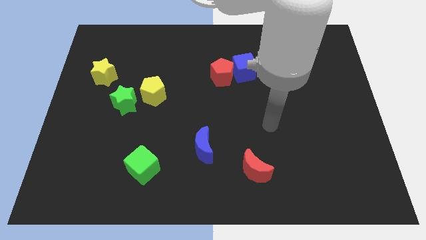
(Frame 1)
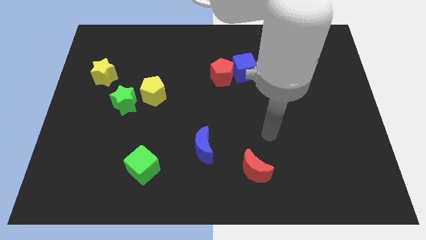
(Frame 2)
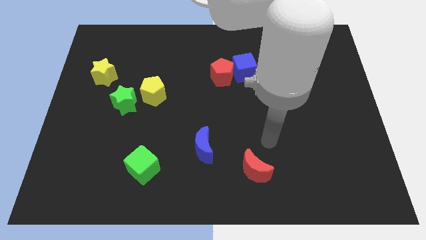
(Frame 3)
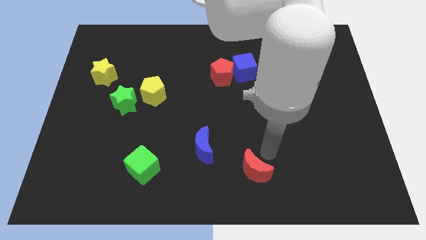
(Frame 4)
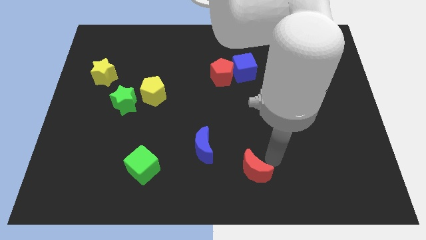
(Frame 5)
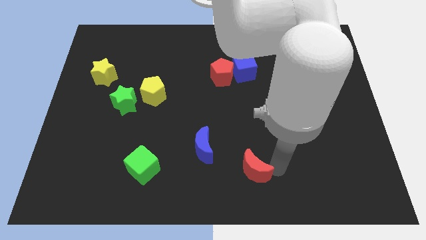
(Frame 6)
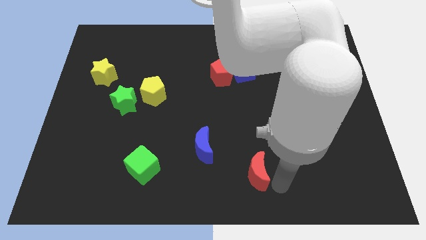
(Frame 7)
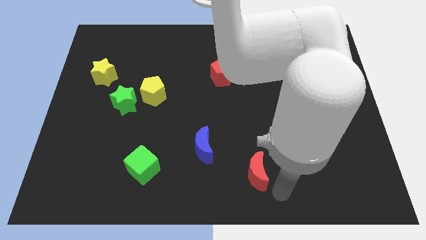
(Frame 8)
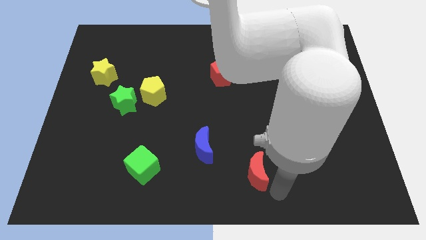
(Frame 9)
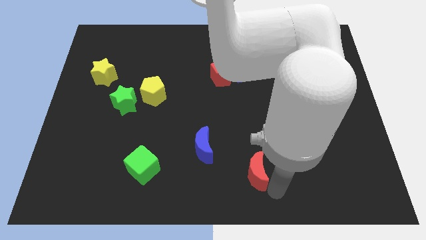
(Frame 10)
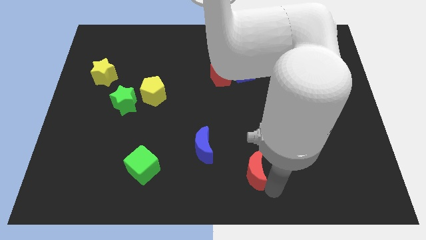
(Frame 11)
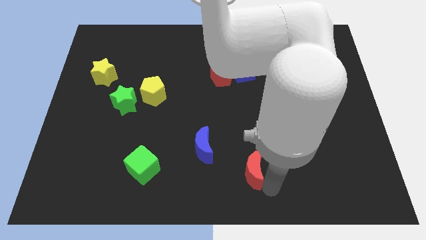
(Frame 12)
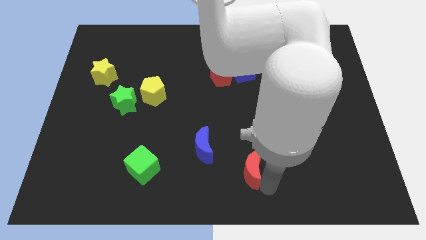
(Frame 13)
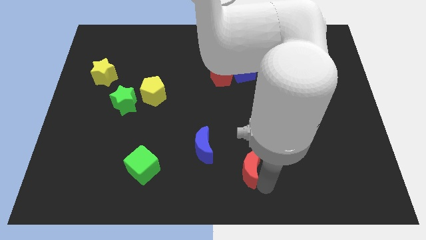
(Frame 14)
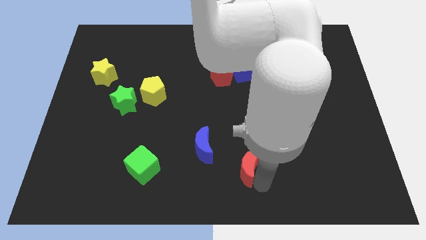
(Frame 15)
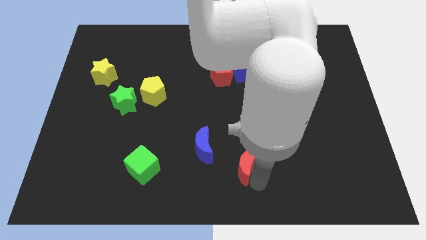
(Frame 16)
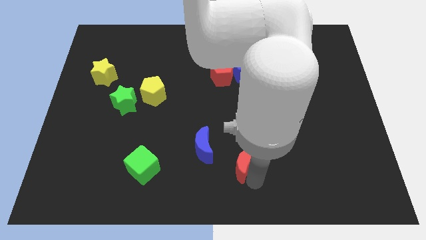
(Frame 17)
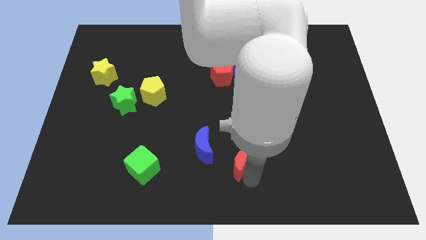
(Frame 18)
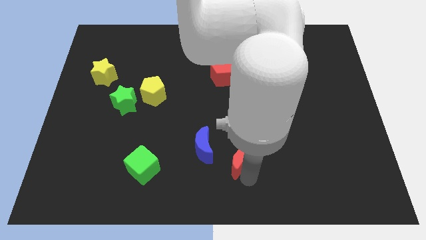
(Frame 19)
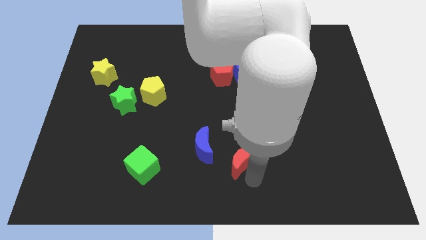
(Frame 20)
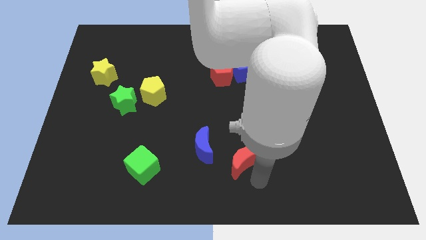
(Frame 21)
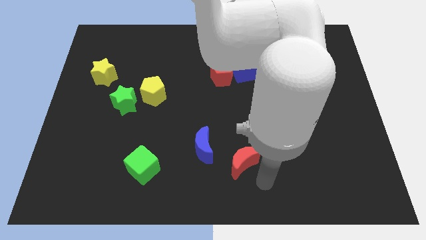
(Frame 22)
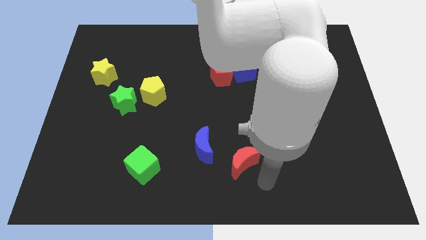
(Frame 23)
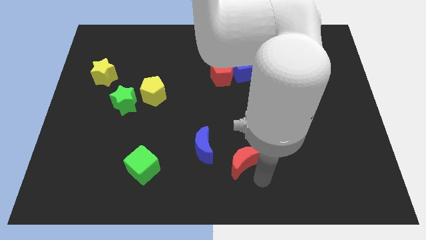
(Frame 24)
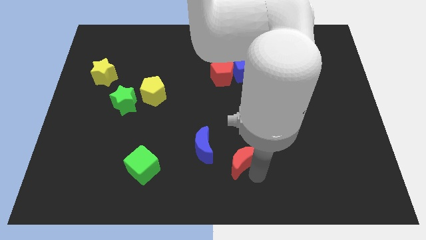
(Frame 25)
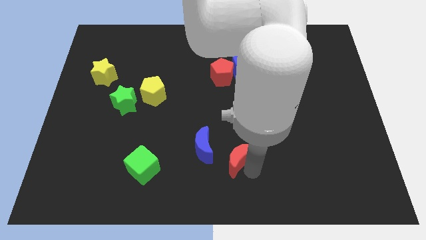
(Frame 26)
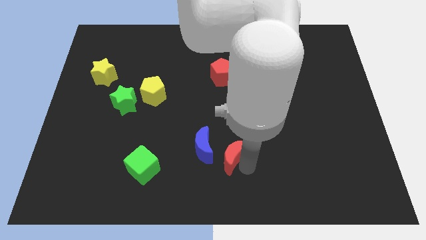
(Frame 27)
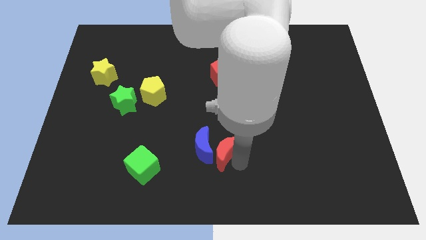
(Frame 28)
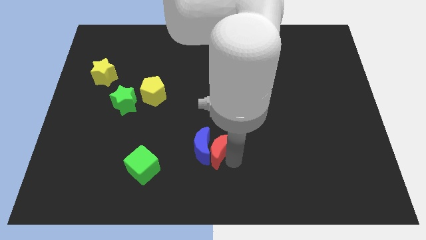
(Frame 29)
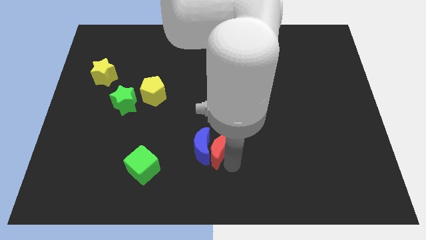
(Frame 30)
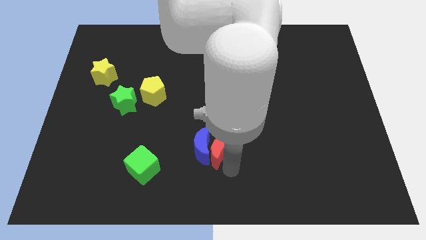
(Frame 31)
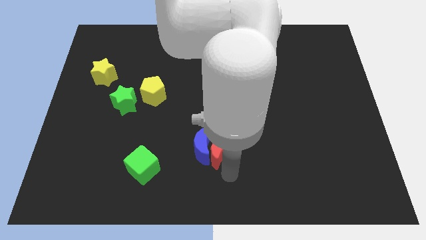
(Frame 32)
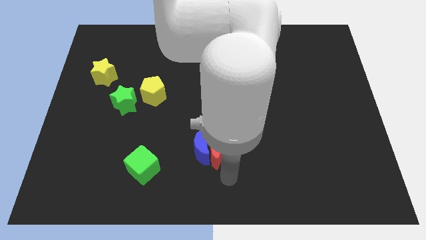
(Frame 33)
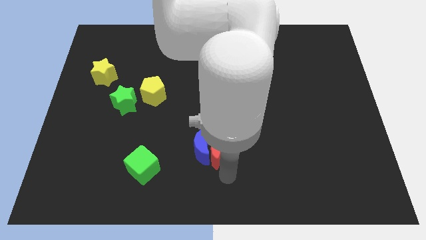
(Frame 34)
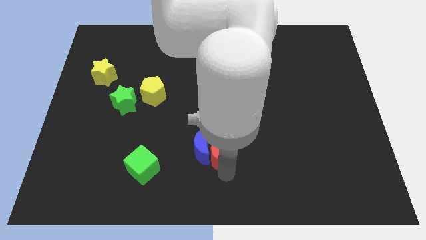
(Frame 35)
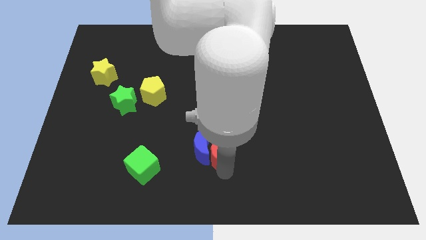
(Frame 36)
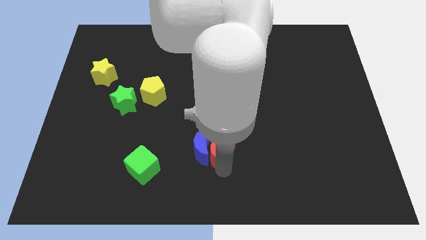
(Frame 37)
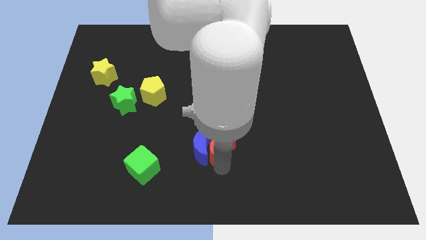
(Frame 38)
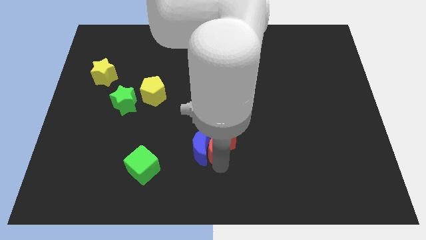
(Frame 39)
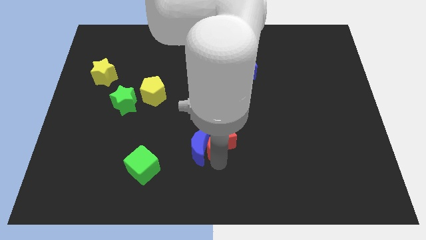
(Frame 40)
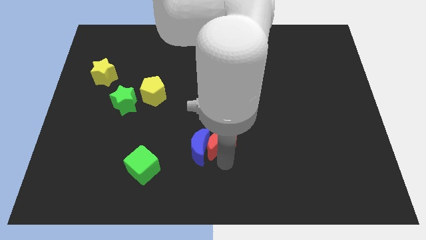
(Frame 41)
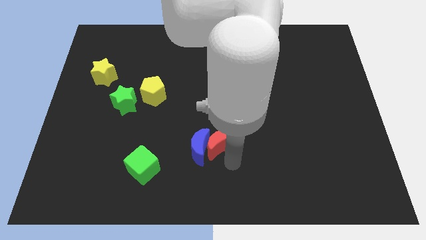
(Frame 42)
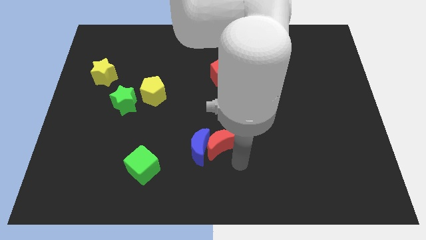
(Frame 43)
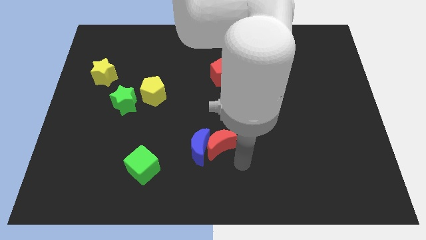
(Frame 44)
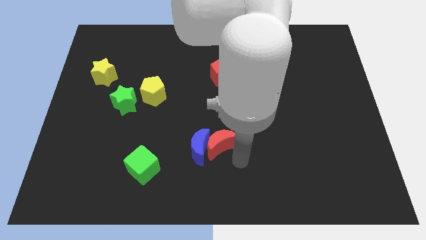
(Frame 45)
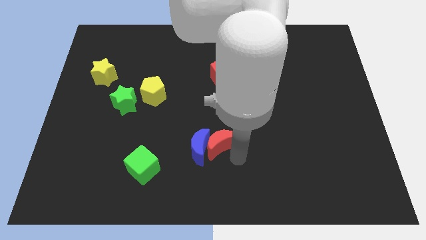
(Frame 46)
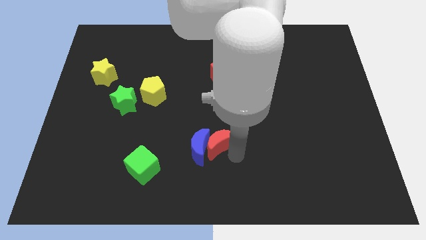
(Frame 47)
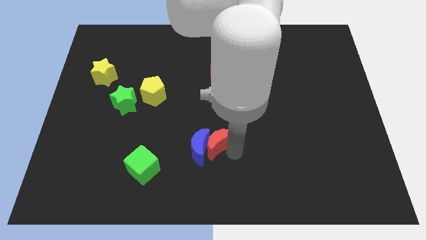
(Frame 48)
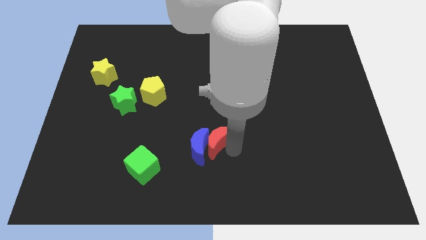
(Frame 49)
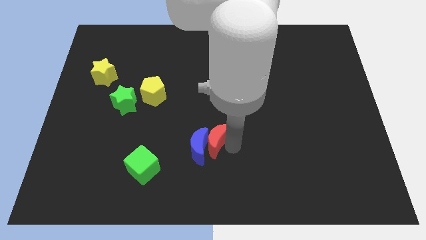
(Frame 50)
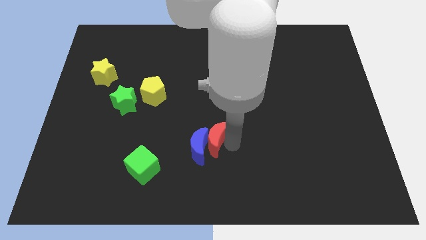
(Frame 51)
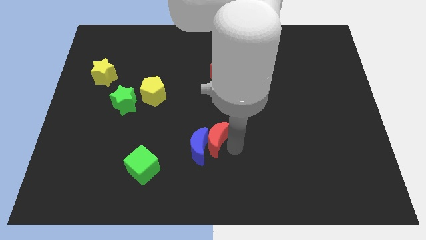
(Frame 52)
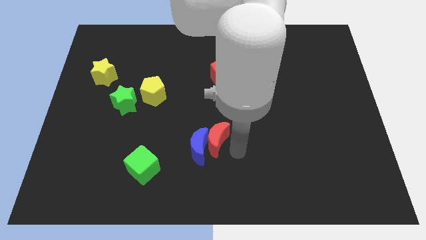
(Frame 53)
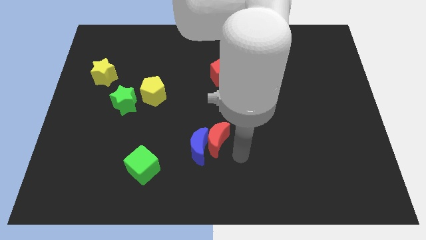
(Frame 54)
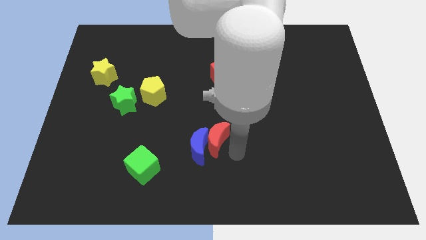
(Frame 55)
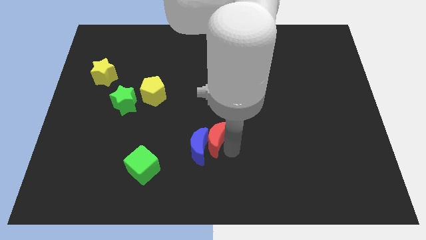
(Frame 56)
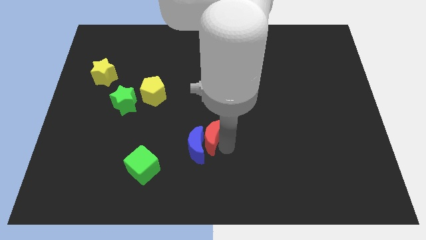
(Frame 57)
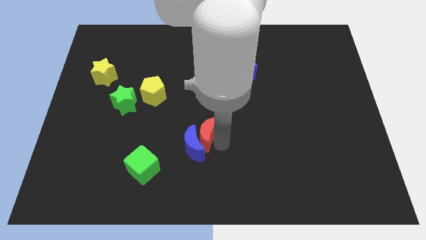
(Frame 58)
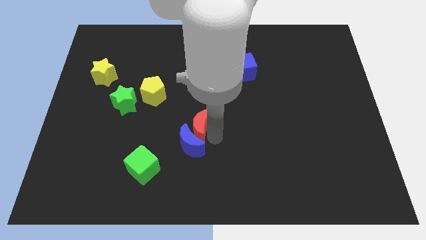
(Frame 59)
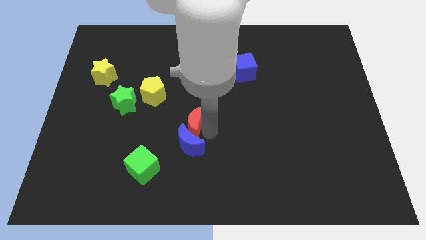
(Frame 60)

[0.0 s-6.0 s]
put the red moon diagonally up and to the left of the blue moon

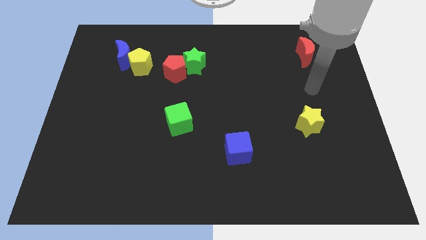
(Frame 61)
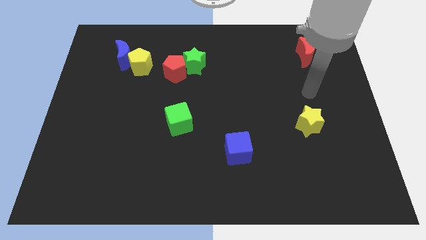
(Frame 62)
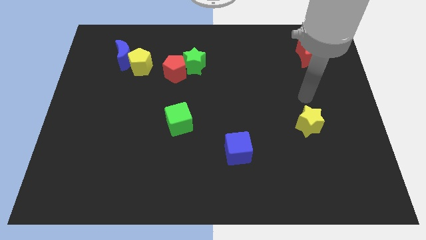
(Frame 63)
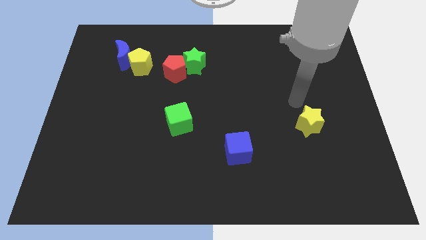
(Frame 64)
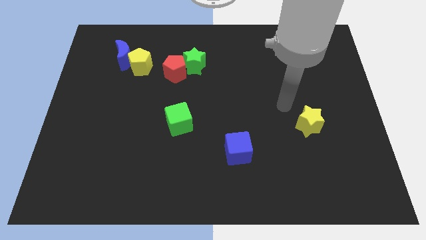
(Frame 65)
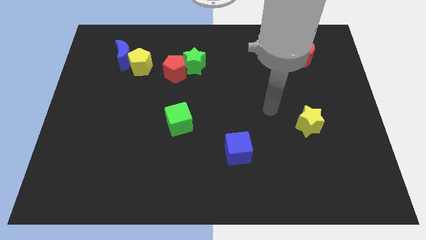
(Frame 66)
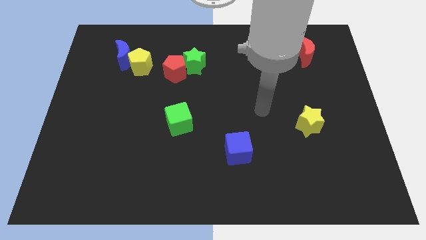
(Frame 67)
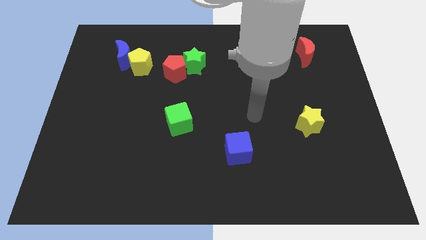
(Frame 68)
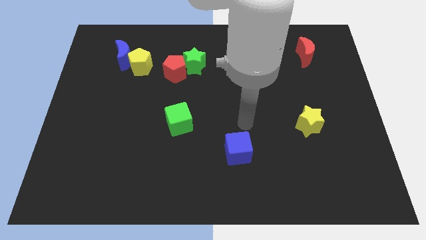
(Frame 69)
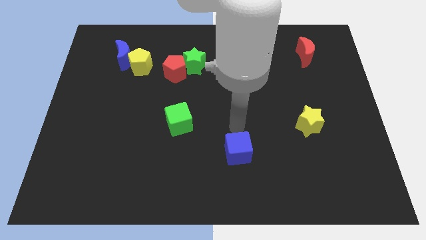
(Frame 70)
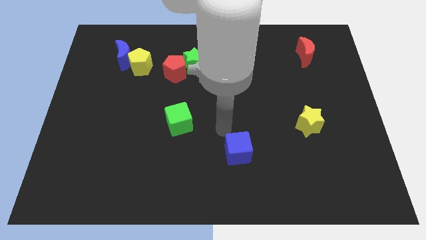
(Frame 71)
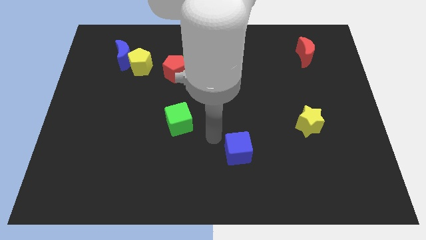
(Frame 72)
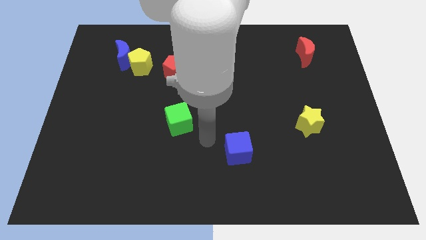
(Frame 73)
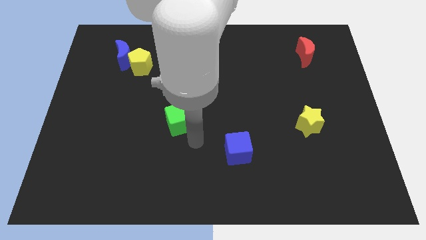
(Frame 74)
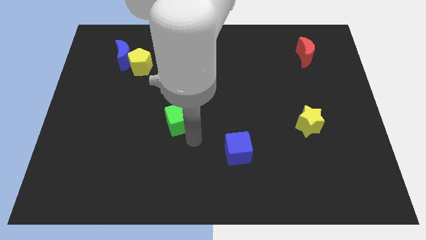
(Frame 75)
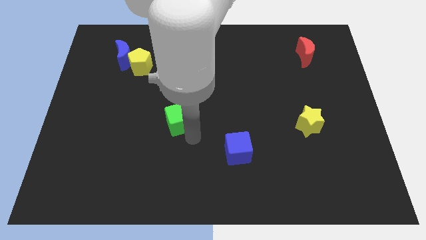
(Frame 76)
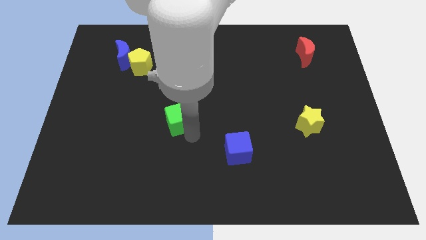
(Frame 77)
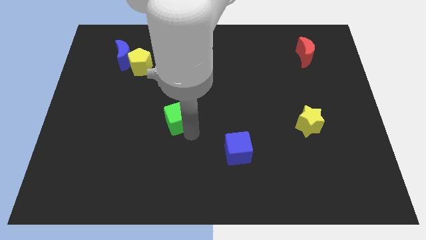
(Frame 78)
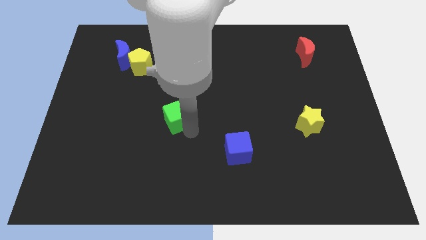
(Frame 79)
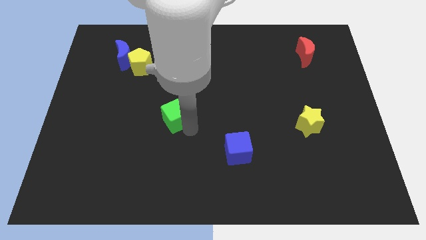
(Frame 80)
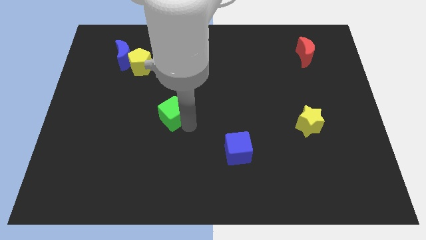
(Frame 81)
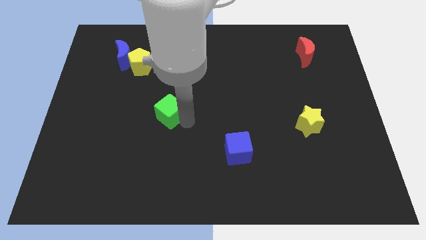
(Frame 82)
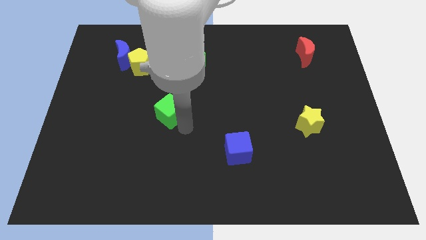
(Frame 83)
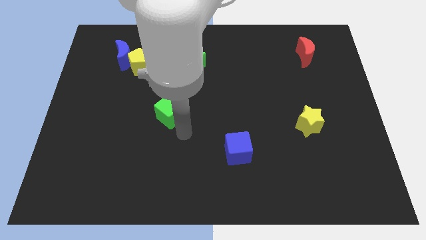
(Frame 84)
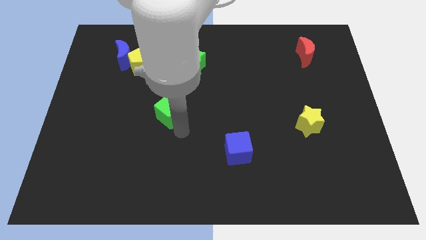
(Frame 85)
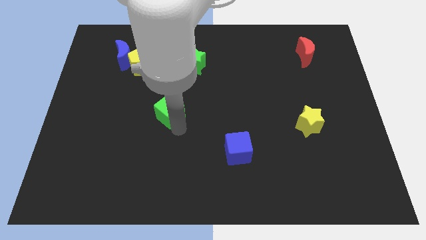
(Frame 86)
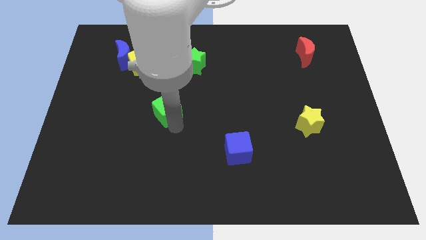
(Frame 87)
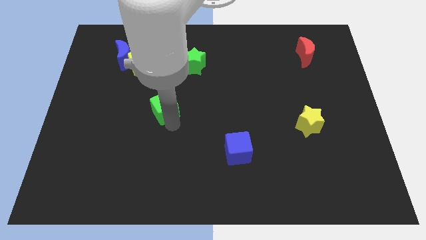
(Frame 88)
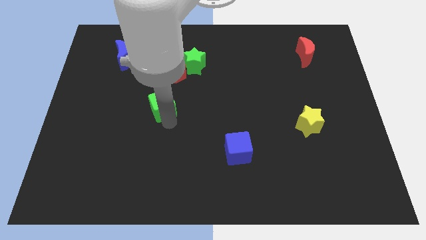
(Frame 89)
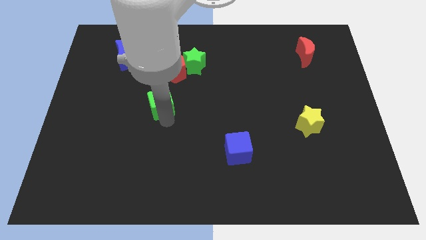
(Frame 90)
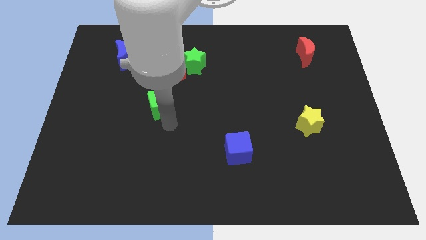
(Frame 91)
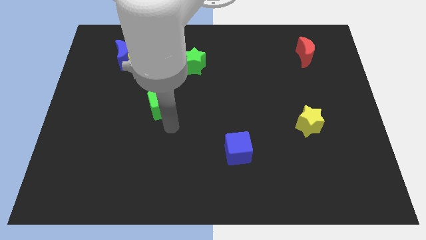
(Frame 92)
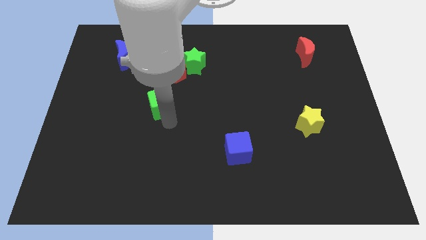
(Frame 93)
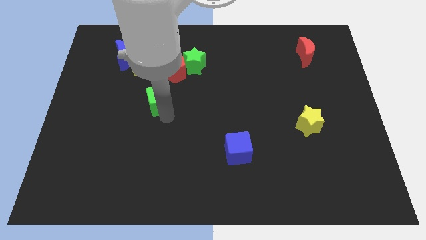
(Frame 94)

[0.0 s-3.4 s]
slide the green cube to the bottom left side of the red pentagon
